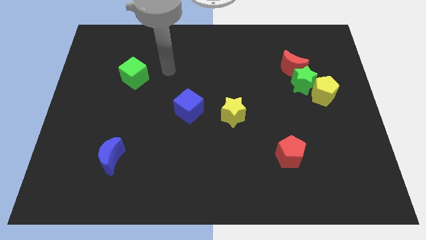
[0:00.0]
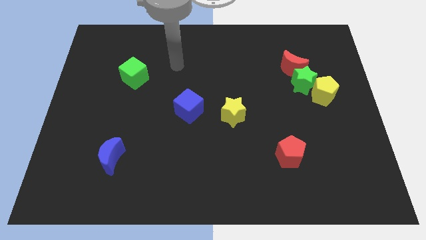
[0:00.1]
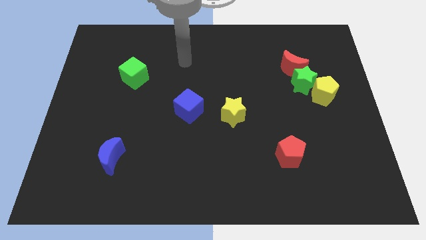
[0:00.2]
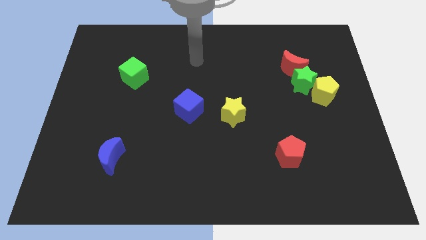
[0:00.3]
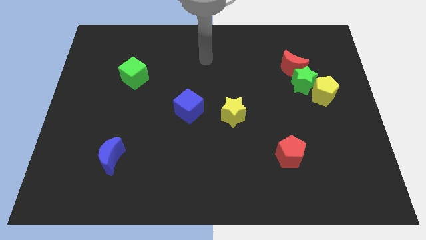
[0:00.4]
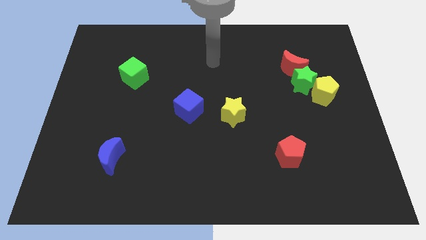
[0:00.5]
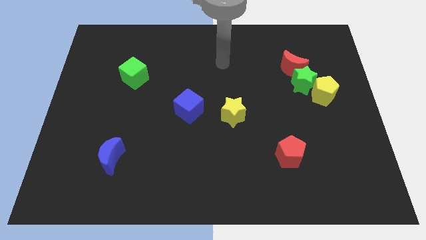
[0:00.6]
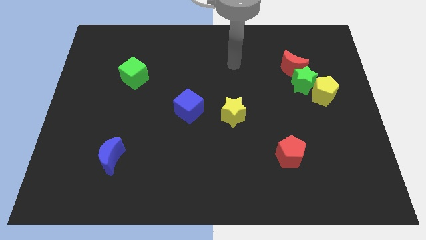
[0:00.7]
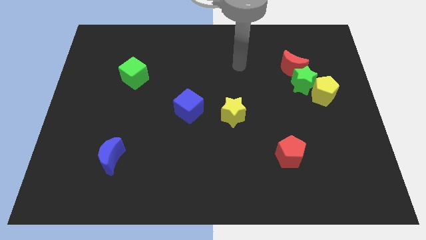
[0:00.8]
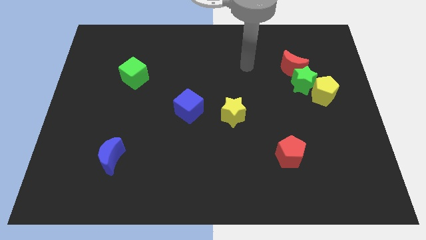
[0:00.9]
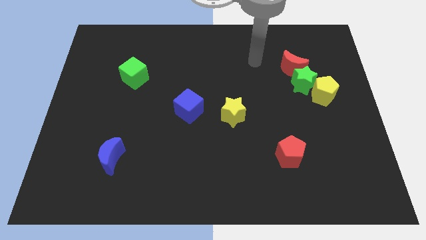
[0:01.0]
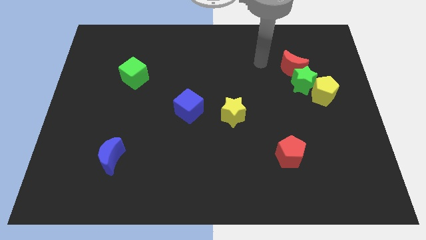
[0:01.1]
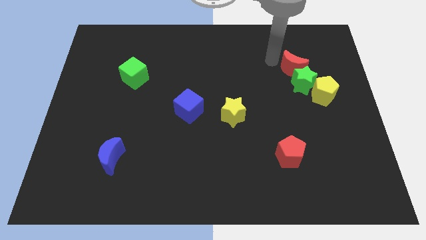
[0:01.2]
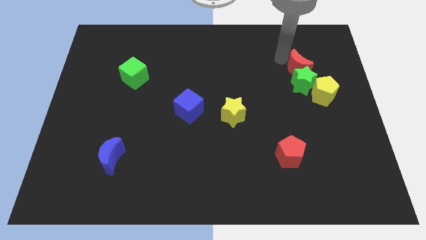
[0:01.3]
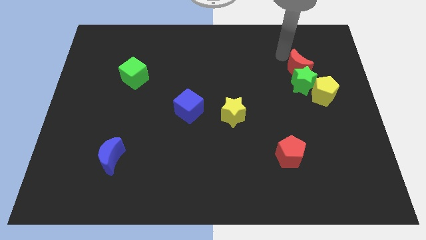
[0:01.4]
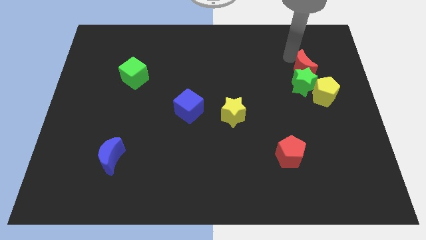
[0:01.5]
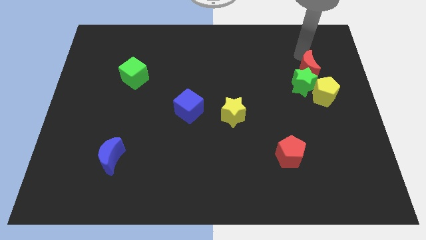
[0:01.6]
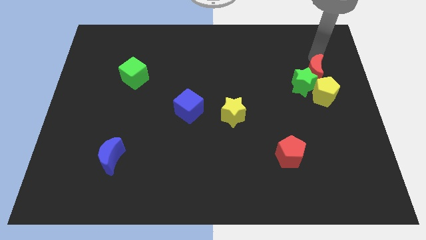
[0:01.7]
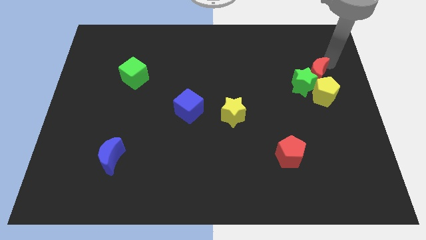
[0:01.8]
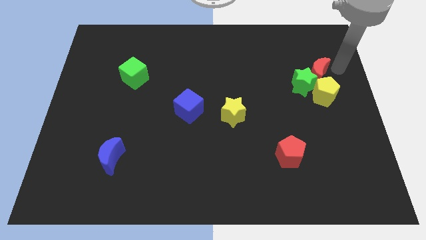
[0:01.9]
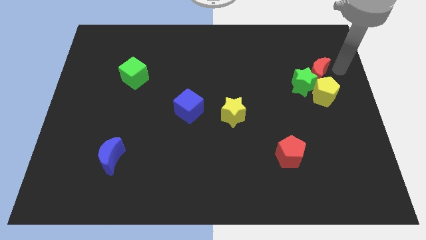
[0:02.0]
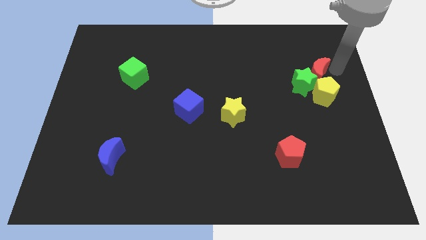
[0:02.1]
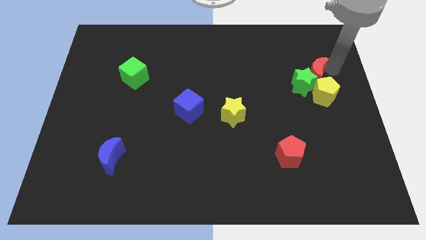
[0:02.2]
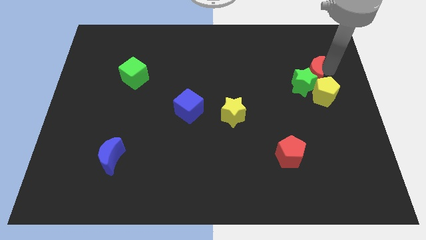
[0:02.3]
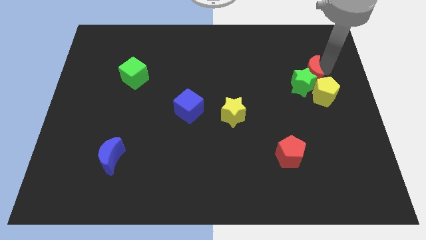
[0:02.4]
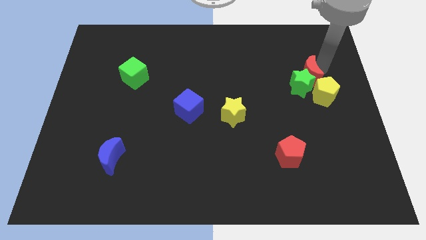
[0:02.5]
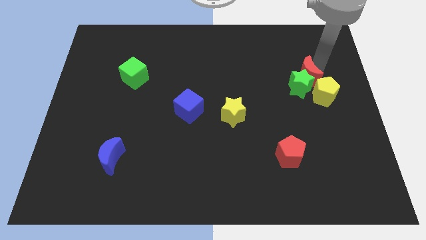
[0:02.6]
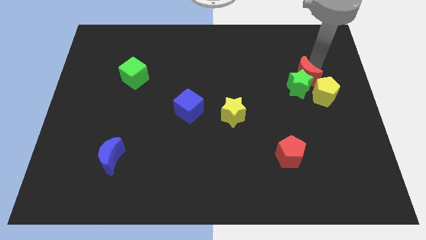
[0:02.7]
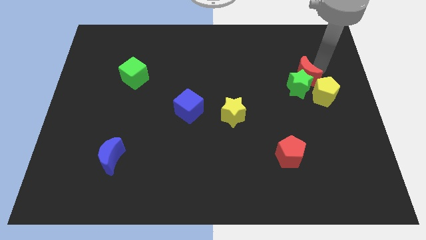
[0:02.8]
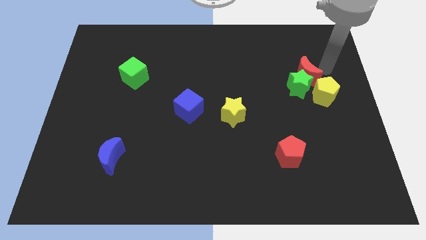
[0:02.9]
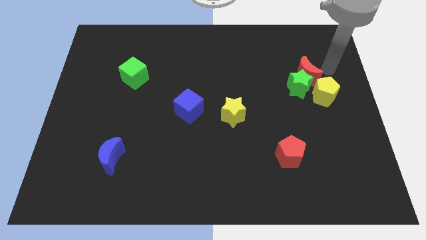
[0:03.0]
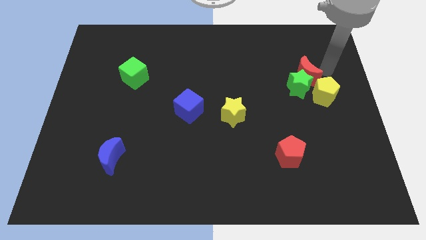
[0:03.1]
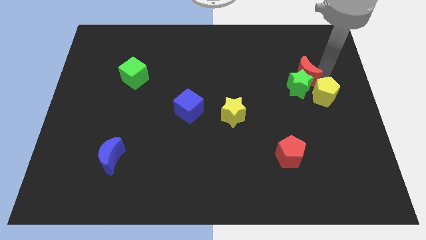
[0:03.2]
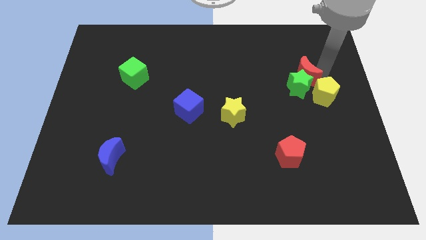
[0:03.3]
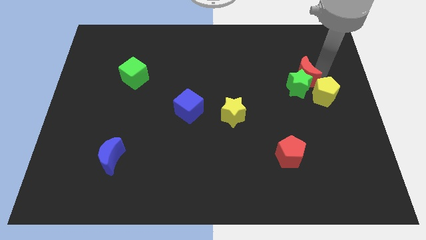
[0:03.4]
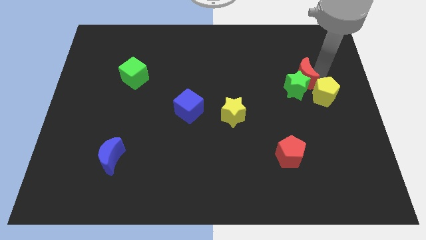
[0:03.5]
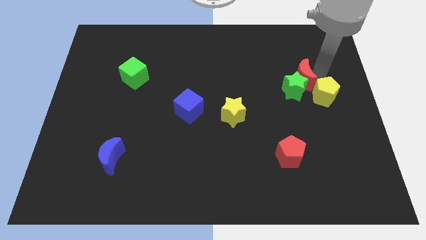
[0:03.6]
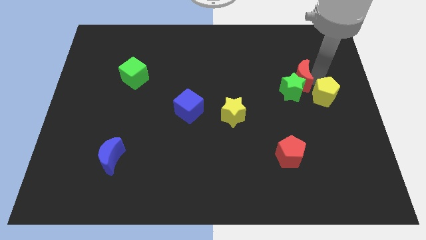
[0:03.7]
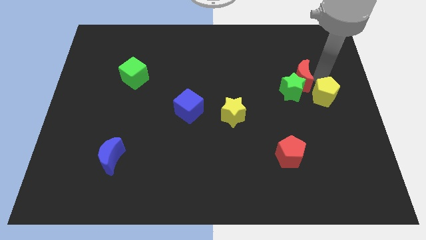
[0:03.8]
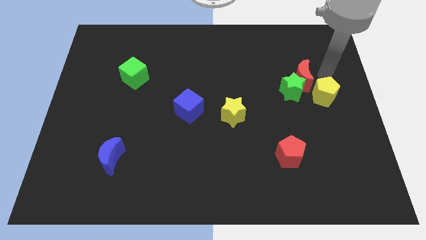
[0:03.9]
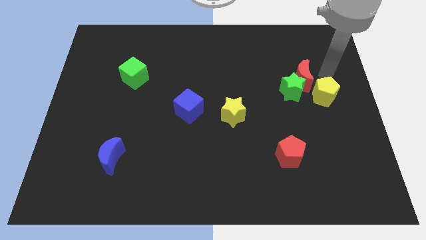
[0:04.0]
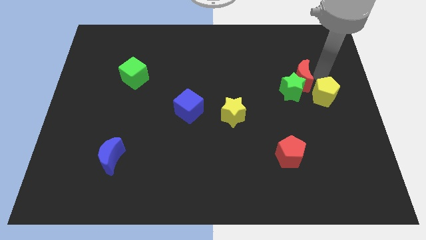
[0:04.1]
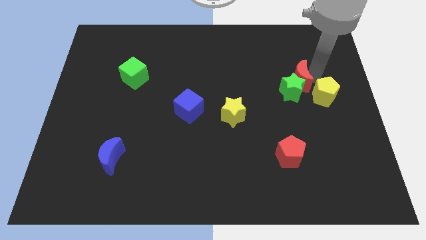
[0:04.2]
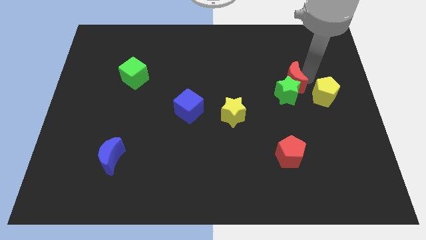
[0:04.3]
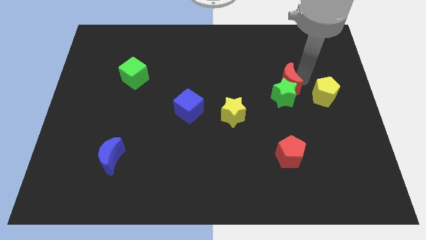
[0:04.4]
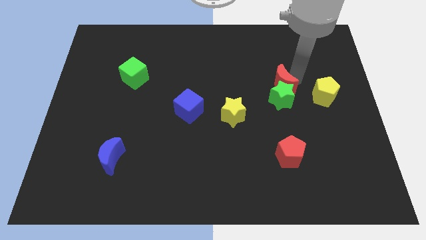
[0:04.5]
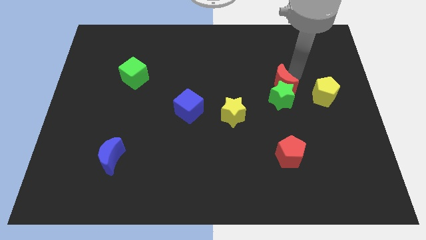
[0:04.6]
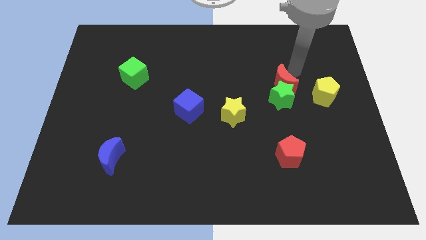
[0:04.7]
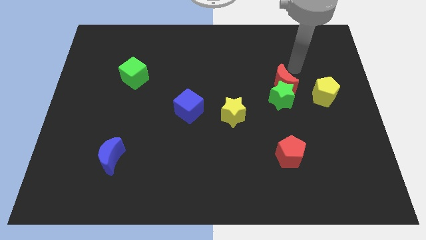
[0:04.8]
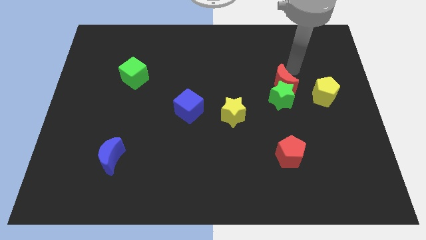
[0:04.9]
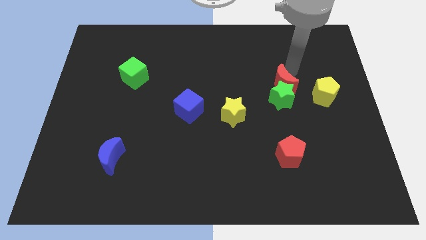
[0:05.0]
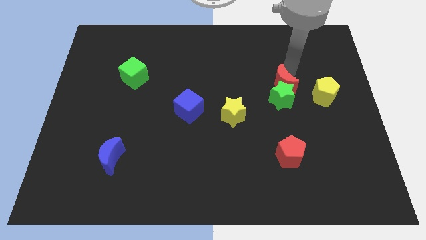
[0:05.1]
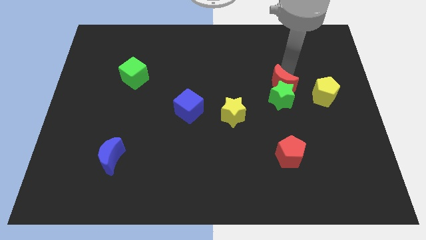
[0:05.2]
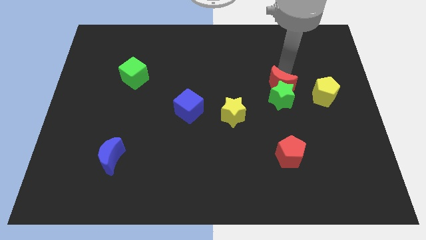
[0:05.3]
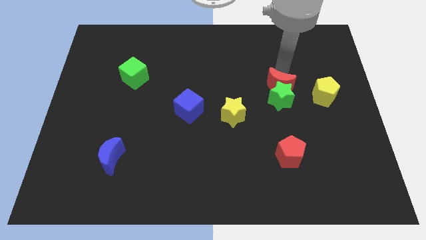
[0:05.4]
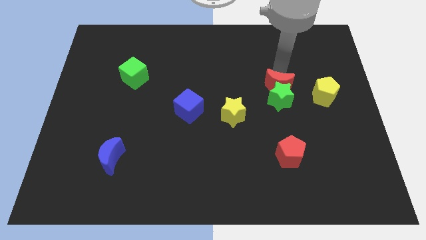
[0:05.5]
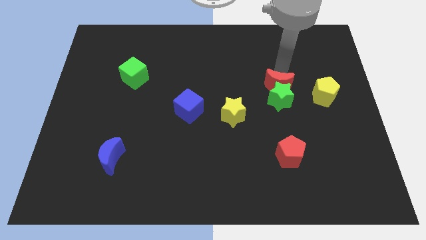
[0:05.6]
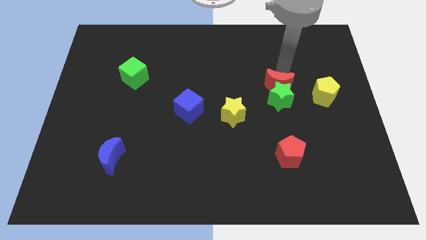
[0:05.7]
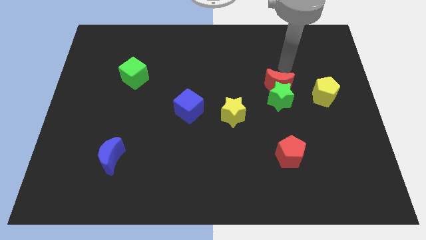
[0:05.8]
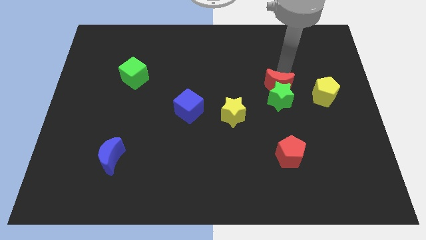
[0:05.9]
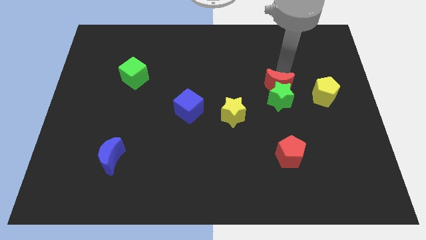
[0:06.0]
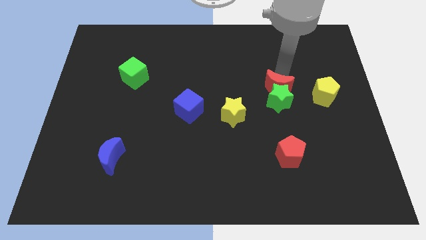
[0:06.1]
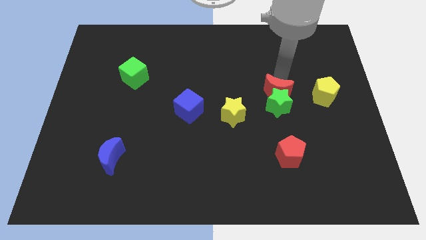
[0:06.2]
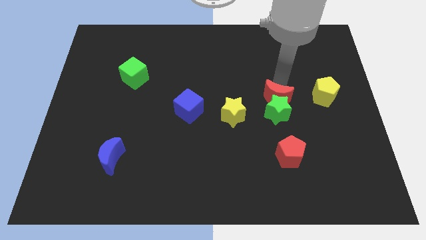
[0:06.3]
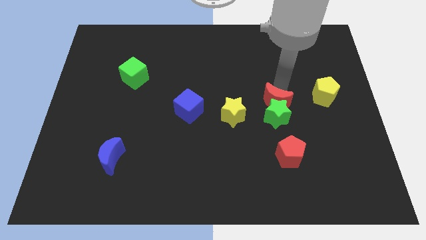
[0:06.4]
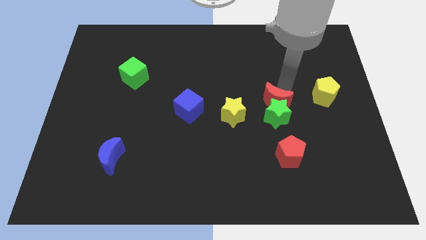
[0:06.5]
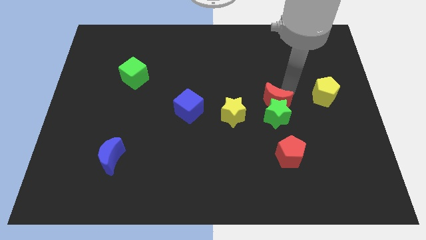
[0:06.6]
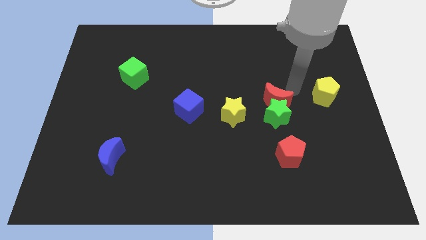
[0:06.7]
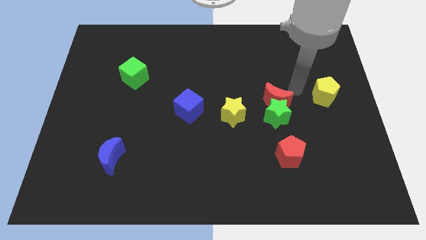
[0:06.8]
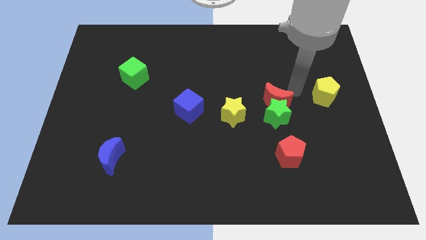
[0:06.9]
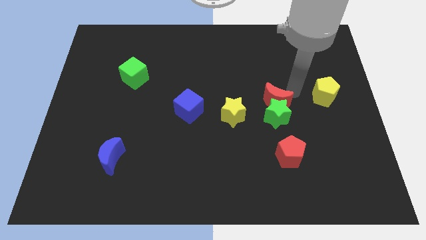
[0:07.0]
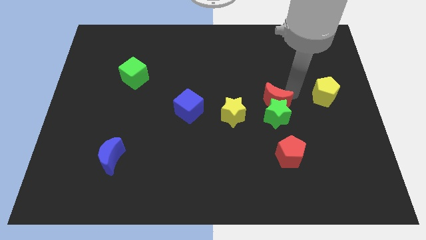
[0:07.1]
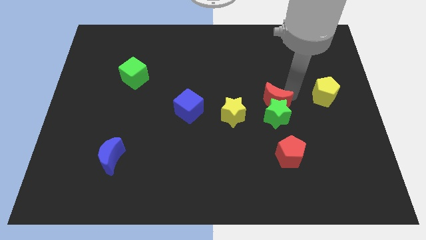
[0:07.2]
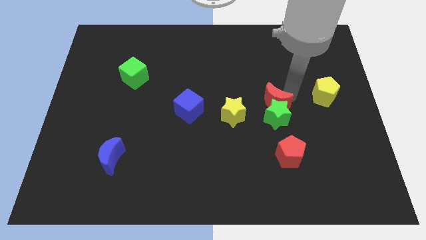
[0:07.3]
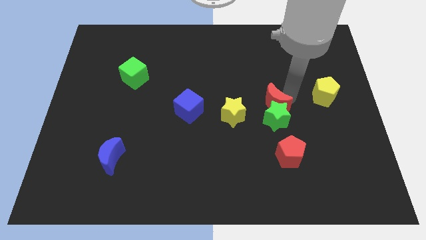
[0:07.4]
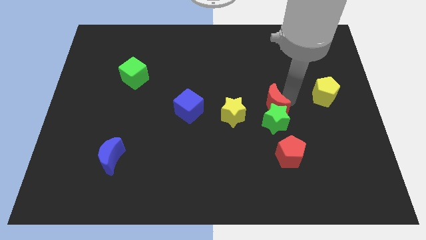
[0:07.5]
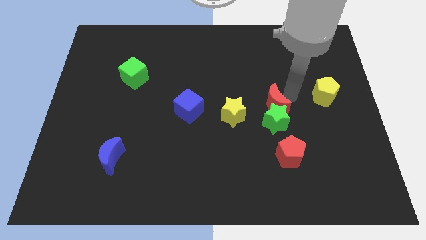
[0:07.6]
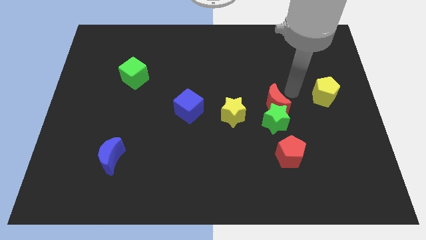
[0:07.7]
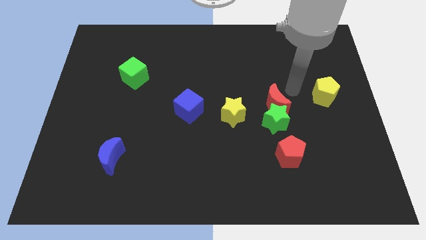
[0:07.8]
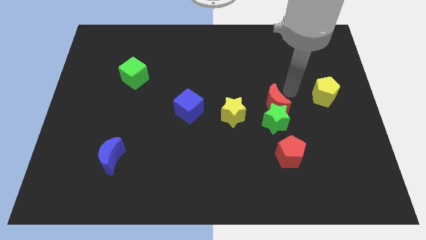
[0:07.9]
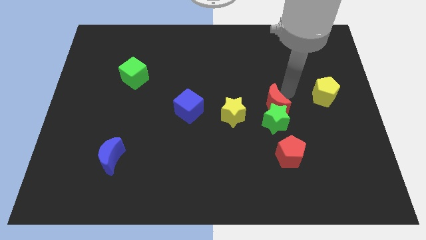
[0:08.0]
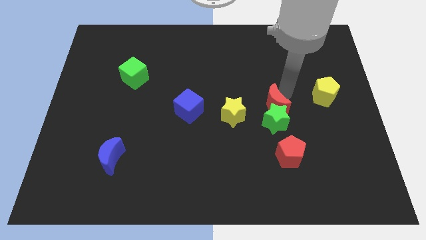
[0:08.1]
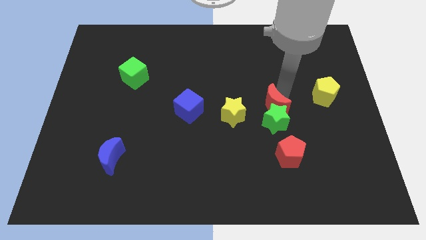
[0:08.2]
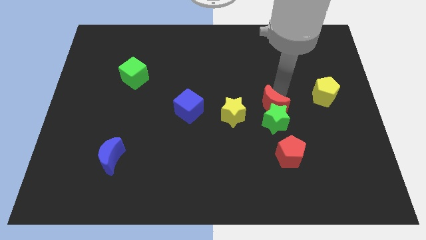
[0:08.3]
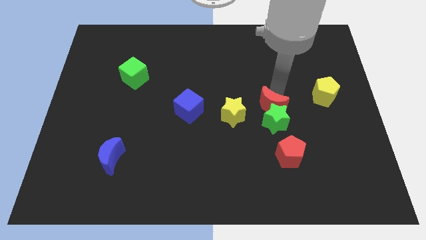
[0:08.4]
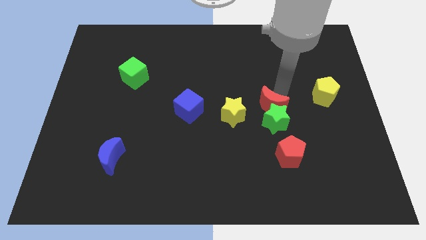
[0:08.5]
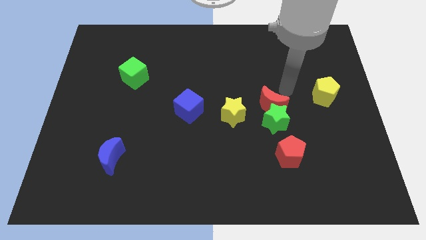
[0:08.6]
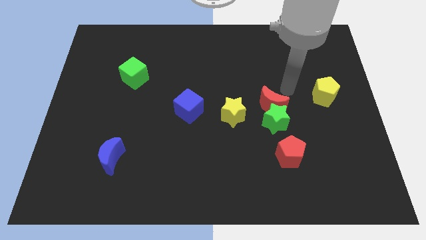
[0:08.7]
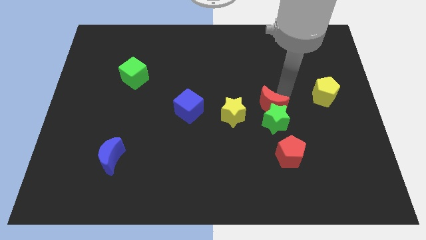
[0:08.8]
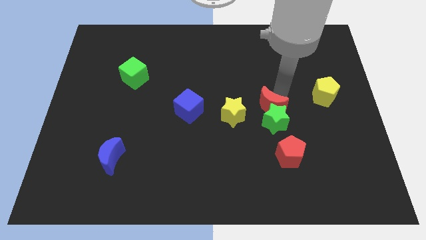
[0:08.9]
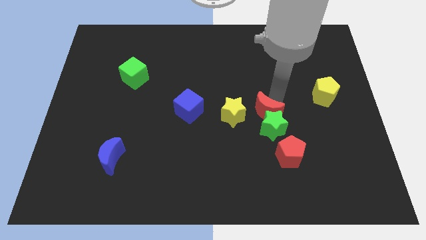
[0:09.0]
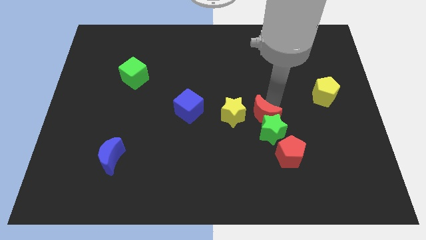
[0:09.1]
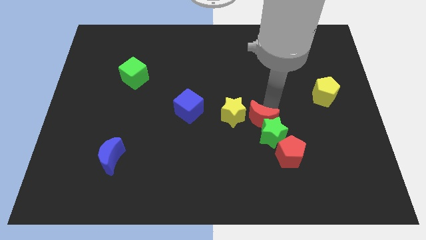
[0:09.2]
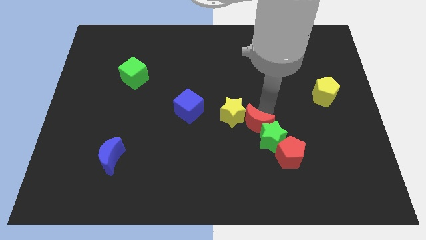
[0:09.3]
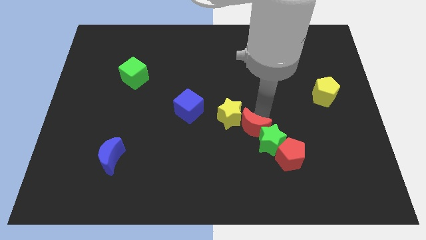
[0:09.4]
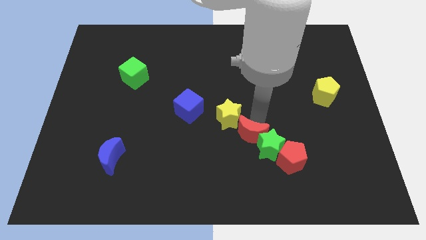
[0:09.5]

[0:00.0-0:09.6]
push the red moon below the yellow star
